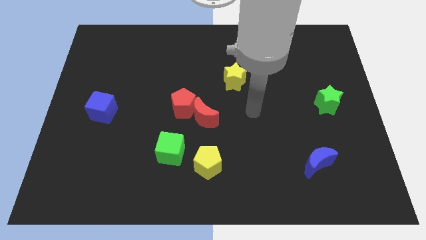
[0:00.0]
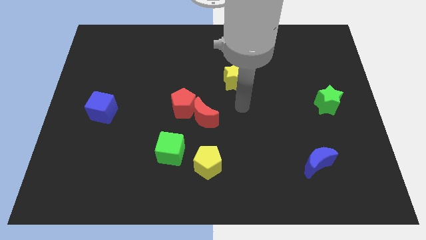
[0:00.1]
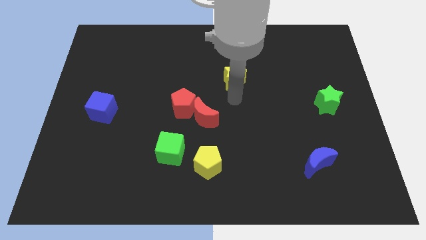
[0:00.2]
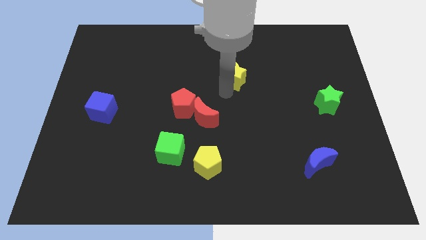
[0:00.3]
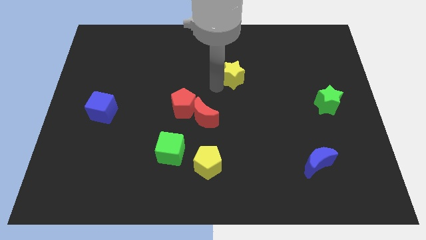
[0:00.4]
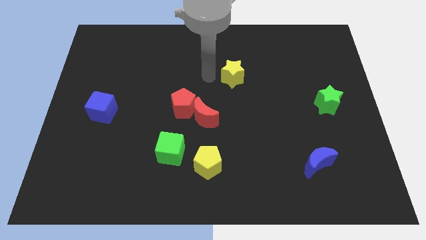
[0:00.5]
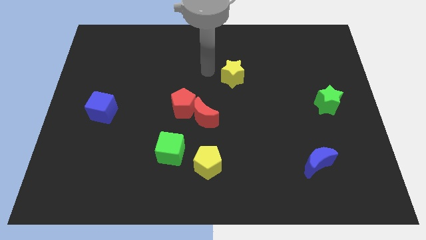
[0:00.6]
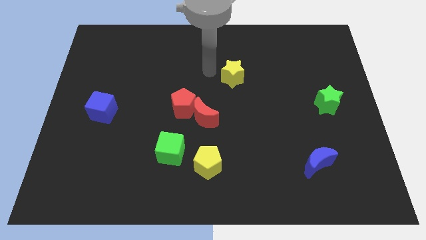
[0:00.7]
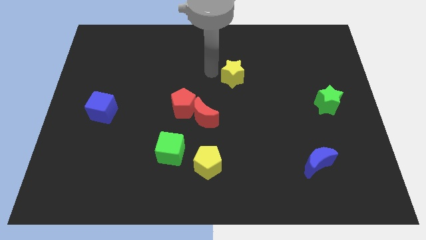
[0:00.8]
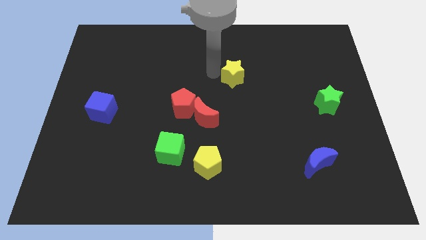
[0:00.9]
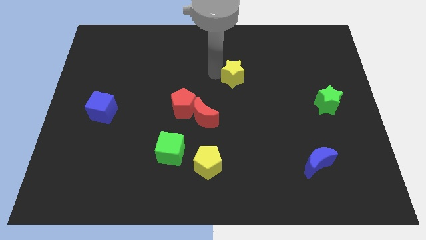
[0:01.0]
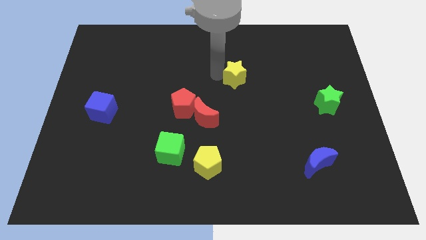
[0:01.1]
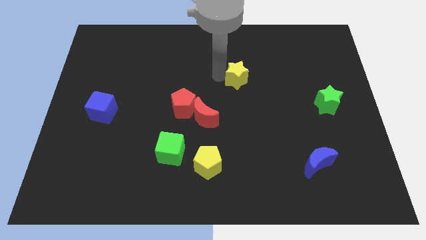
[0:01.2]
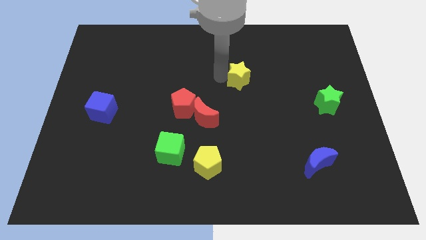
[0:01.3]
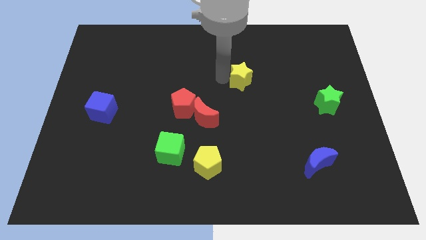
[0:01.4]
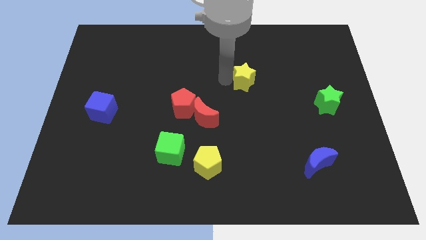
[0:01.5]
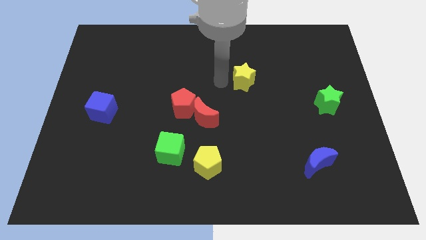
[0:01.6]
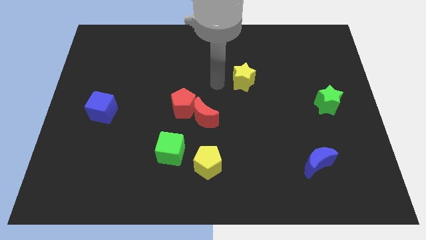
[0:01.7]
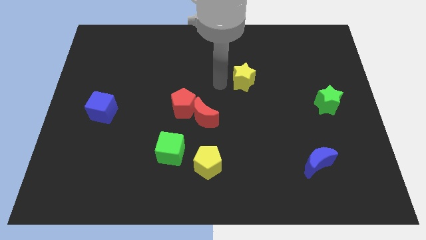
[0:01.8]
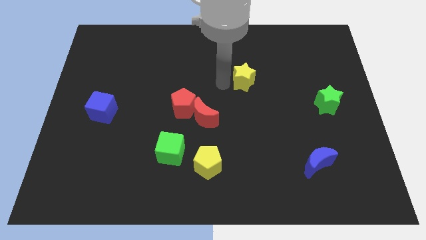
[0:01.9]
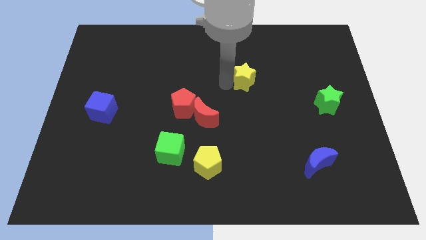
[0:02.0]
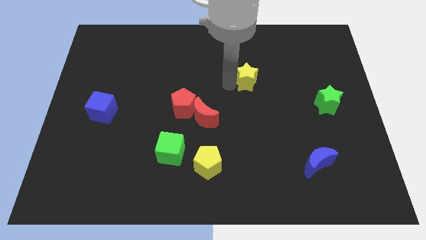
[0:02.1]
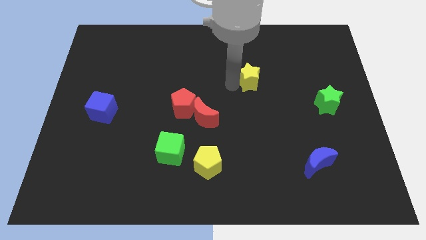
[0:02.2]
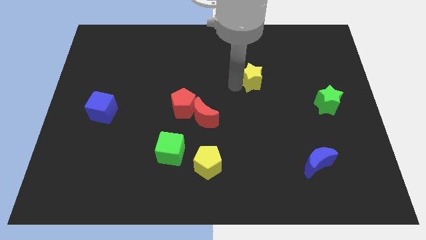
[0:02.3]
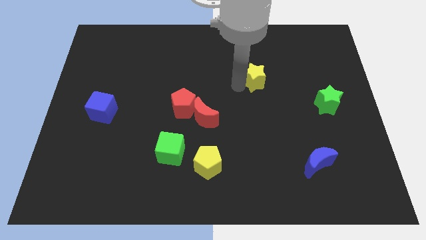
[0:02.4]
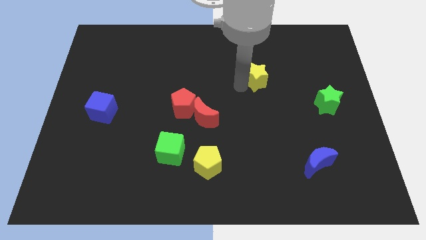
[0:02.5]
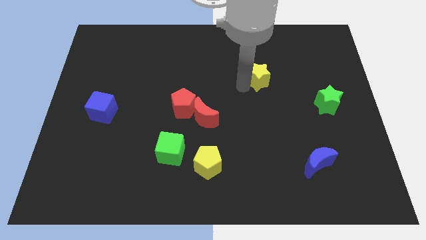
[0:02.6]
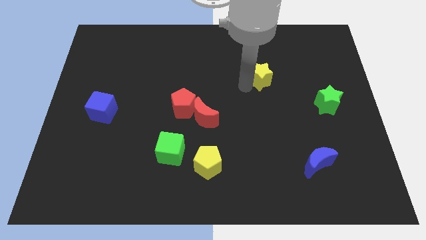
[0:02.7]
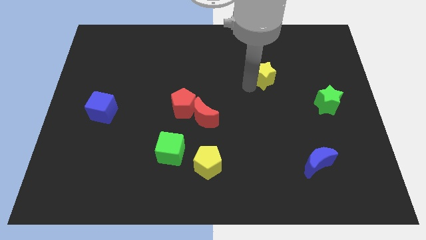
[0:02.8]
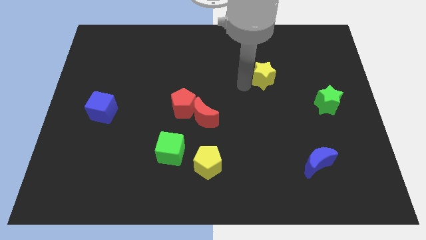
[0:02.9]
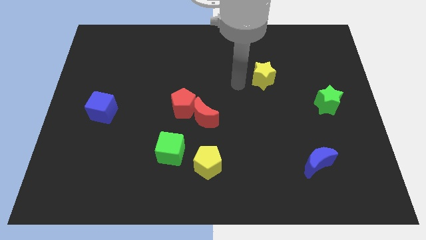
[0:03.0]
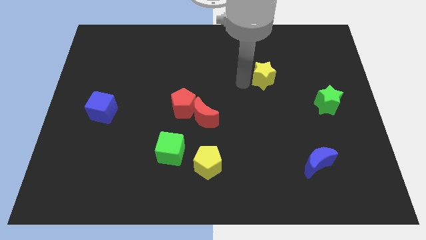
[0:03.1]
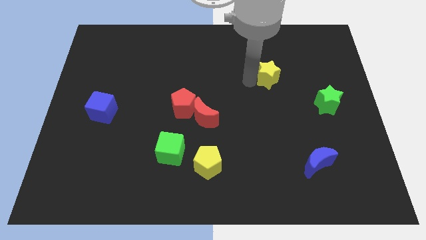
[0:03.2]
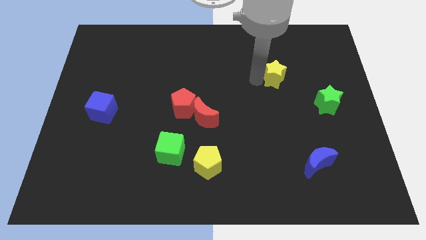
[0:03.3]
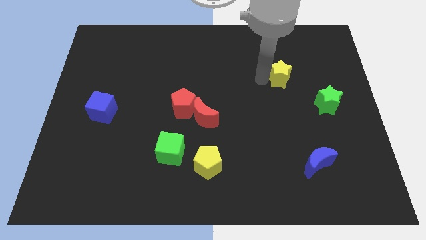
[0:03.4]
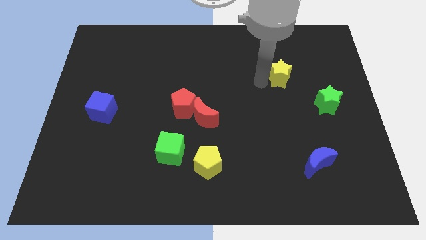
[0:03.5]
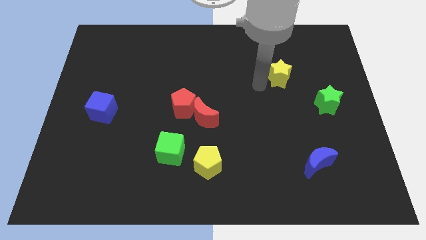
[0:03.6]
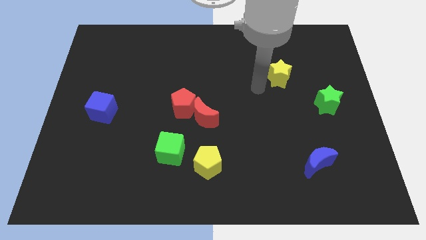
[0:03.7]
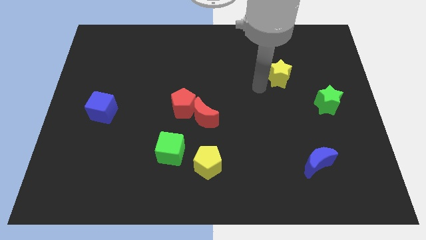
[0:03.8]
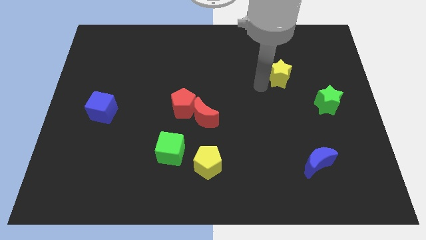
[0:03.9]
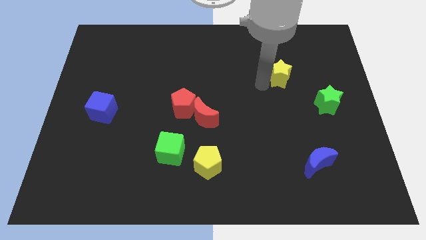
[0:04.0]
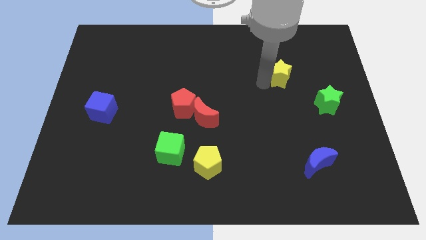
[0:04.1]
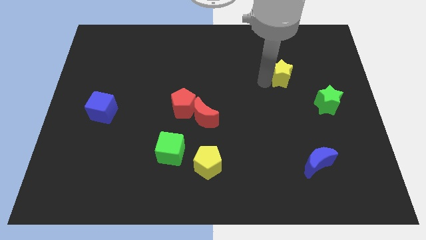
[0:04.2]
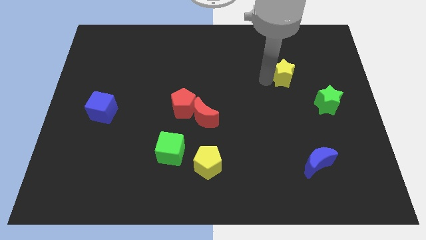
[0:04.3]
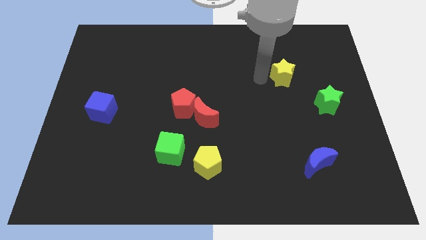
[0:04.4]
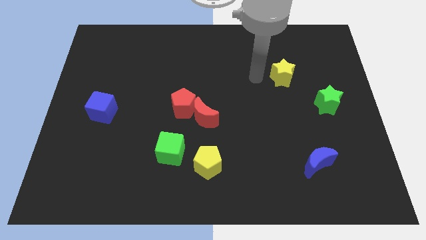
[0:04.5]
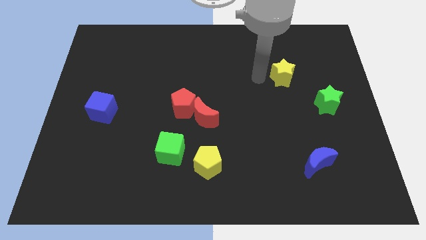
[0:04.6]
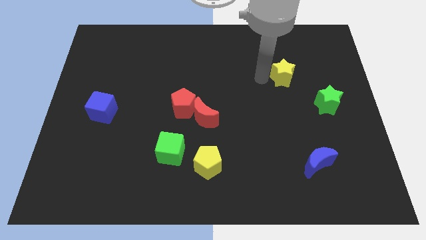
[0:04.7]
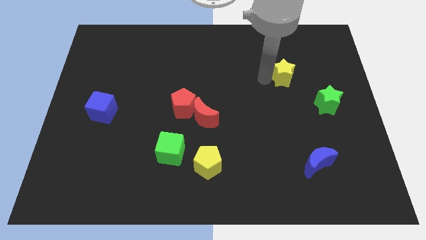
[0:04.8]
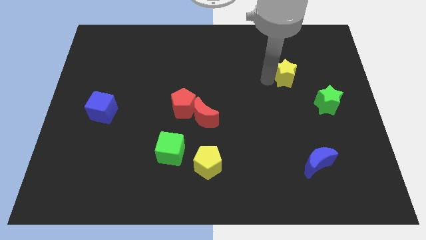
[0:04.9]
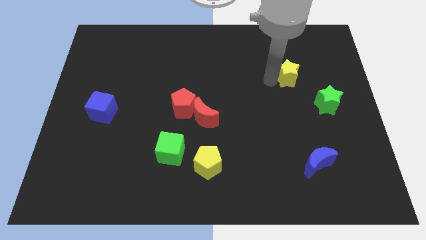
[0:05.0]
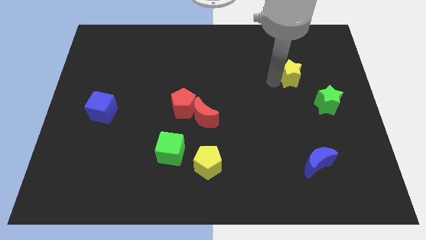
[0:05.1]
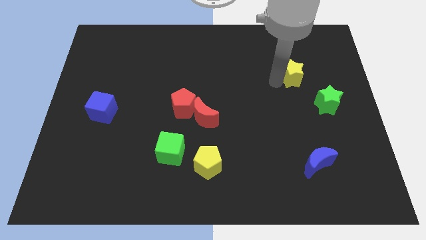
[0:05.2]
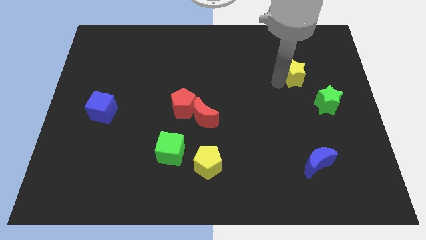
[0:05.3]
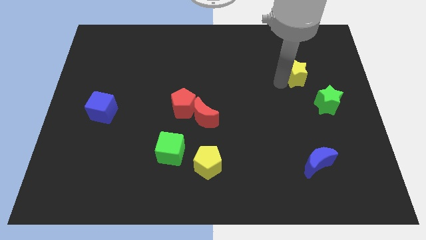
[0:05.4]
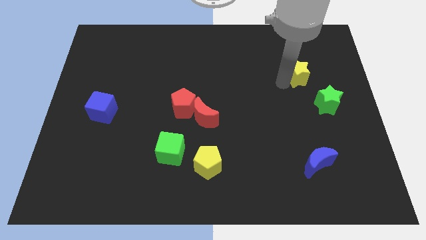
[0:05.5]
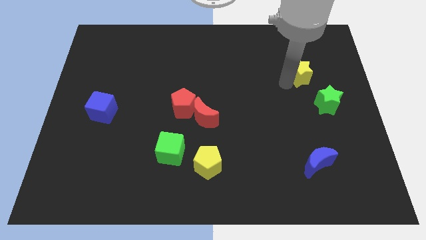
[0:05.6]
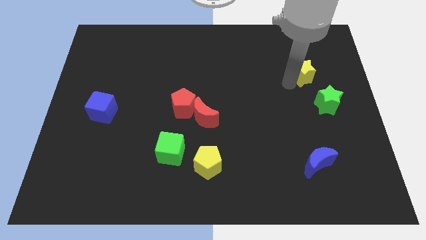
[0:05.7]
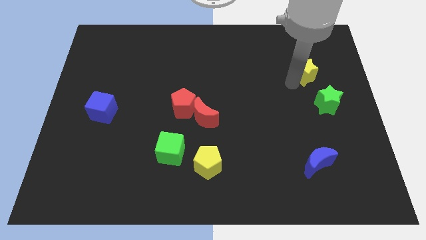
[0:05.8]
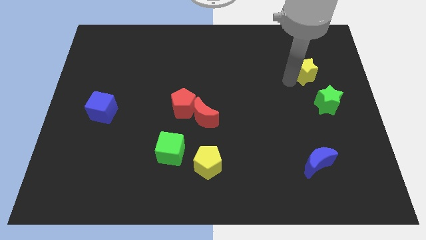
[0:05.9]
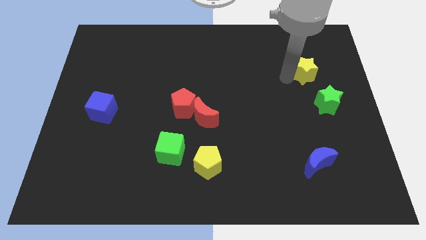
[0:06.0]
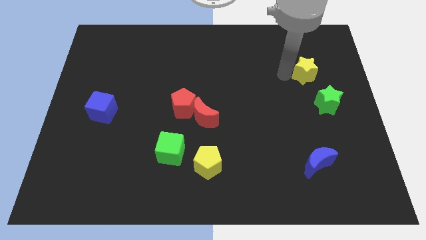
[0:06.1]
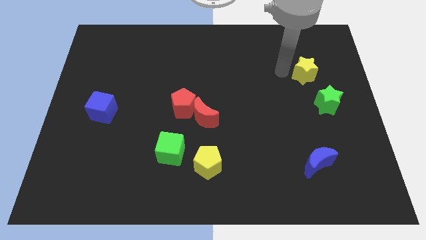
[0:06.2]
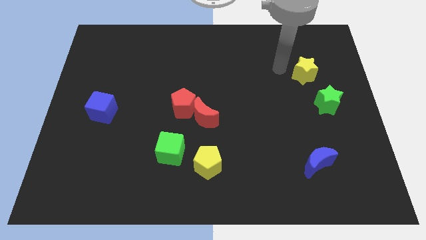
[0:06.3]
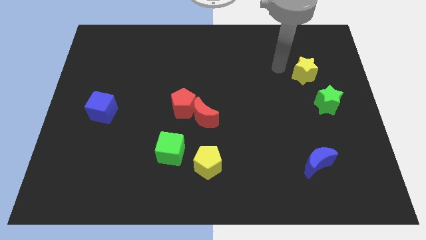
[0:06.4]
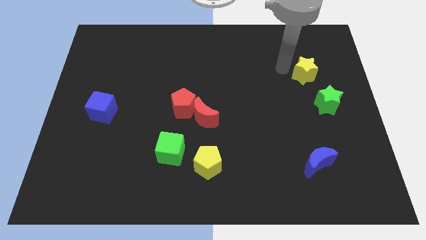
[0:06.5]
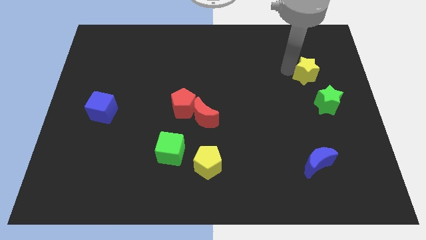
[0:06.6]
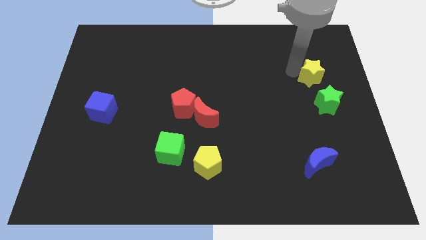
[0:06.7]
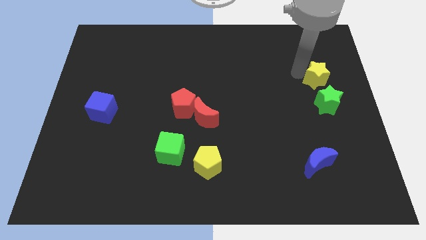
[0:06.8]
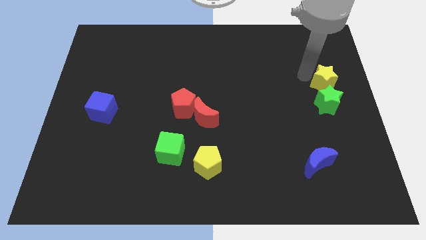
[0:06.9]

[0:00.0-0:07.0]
move the yellow star to the center right
